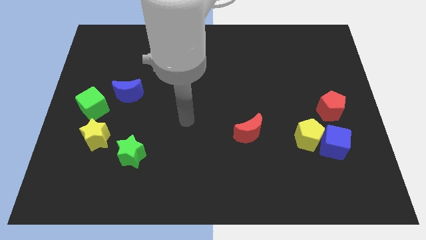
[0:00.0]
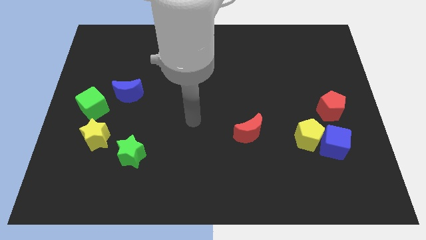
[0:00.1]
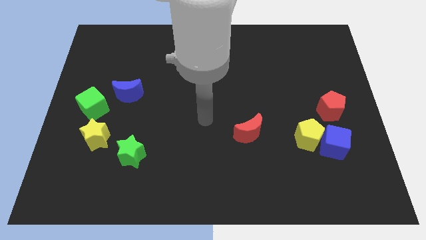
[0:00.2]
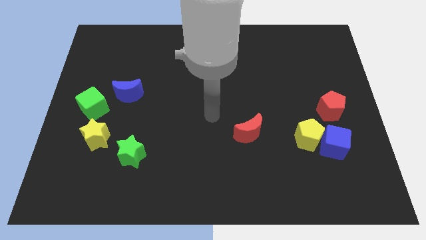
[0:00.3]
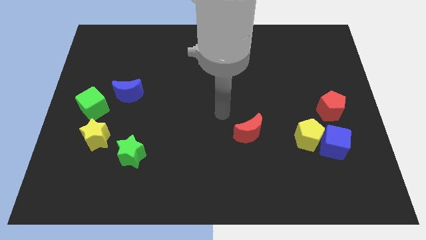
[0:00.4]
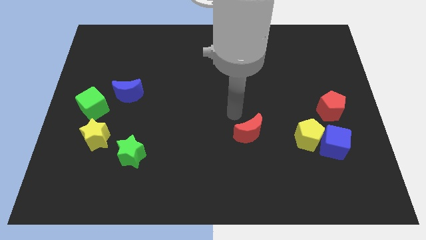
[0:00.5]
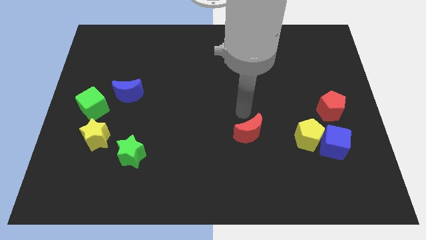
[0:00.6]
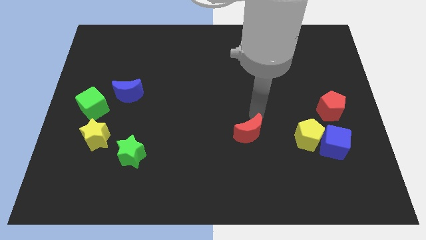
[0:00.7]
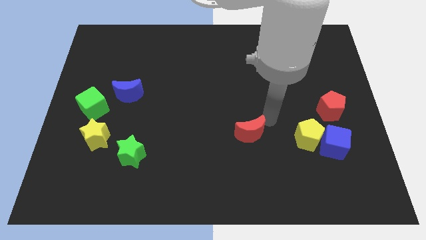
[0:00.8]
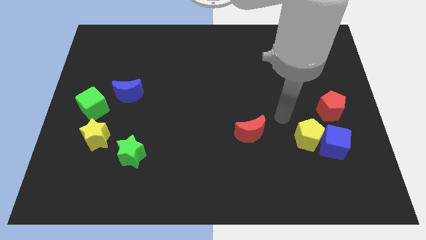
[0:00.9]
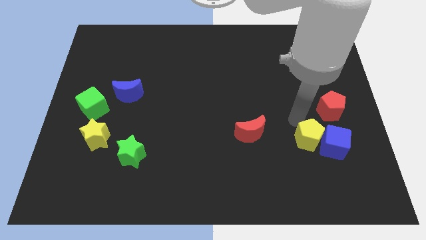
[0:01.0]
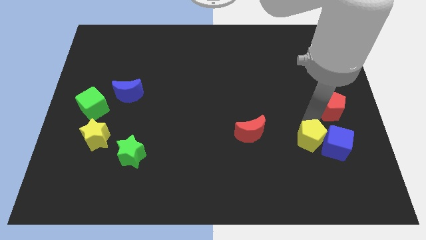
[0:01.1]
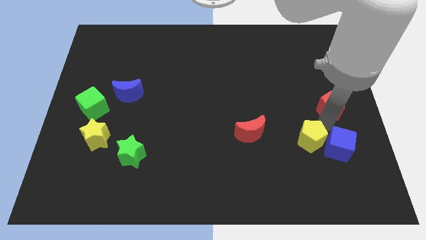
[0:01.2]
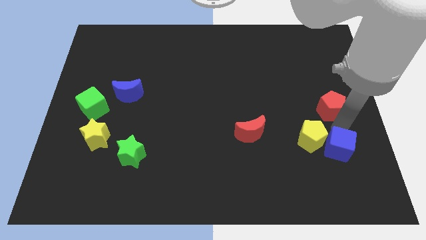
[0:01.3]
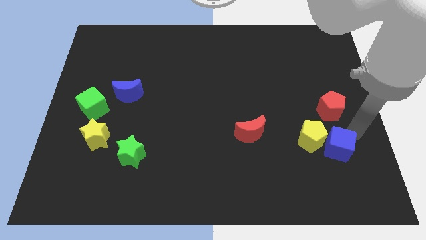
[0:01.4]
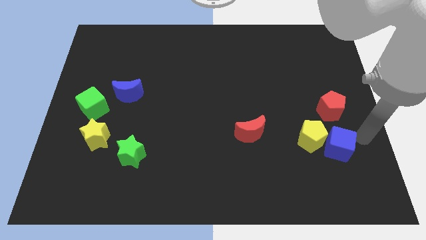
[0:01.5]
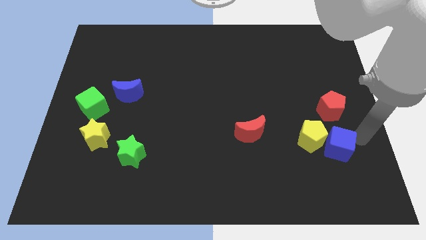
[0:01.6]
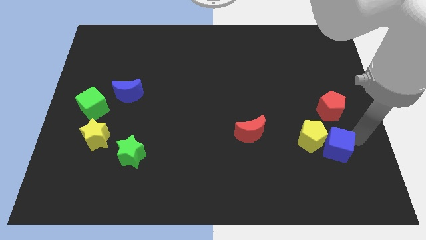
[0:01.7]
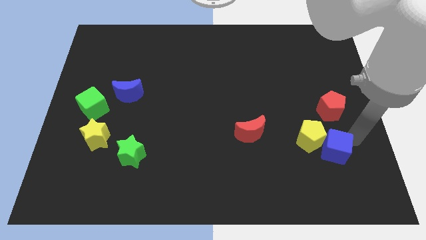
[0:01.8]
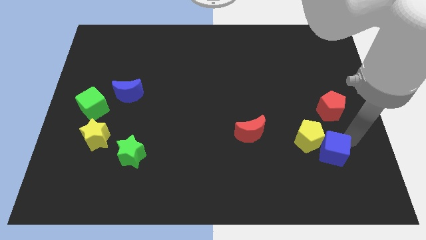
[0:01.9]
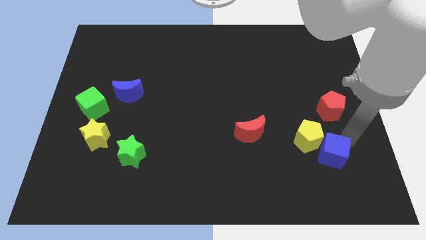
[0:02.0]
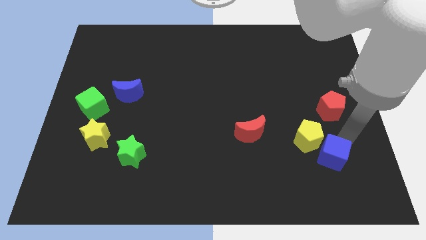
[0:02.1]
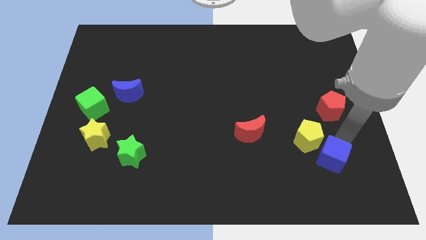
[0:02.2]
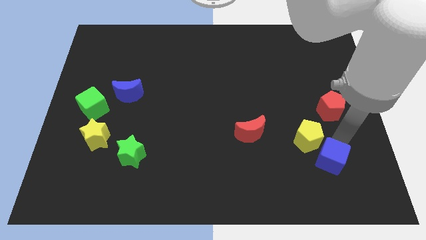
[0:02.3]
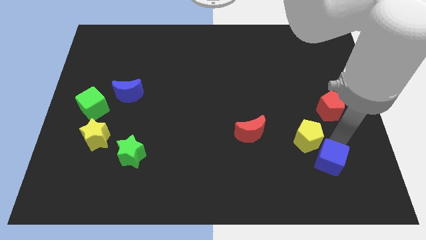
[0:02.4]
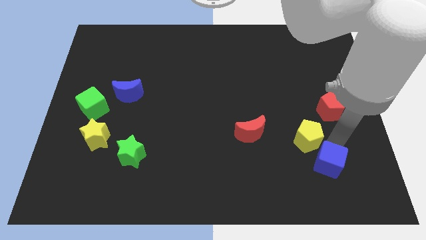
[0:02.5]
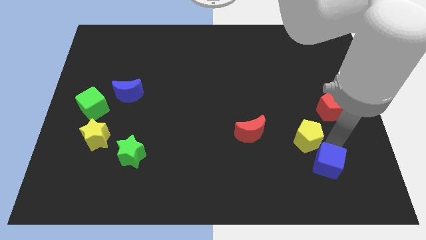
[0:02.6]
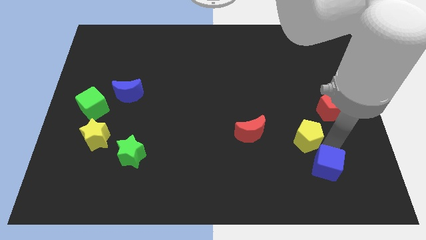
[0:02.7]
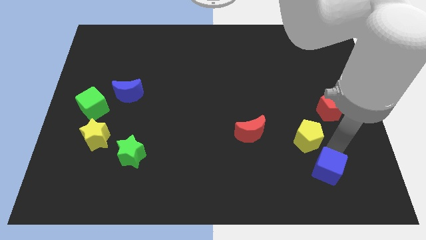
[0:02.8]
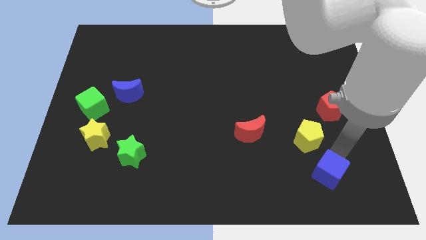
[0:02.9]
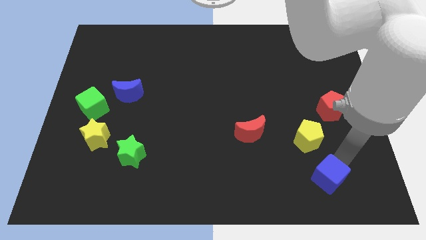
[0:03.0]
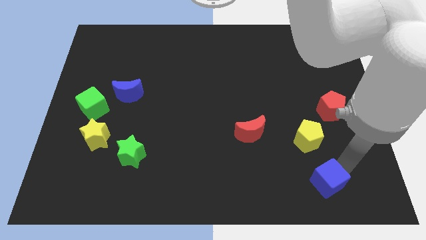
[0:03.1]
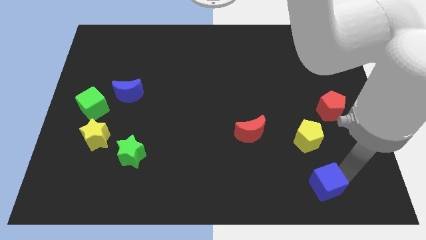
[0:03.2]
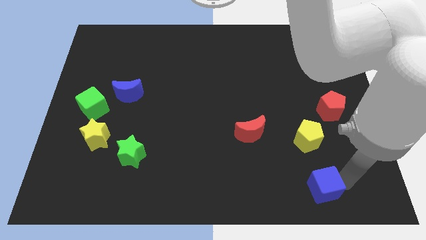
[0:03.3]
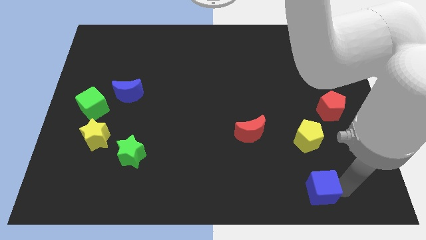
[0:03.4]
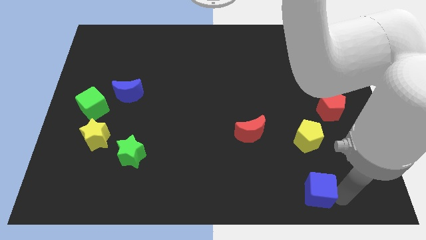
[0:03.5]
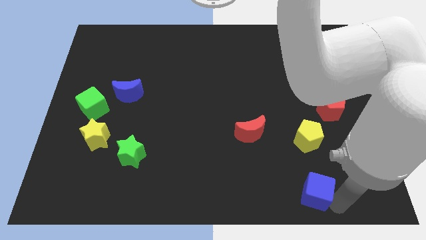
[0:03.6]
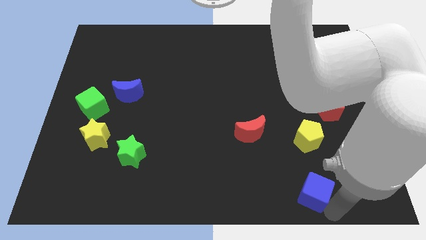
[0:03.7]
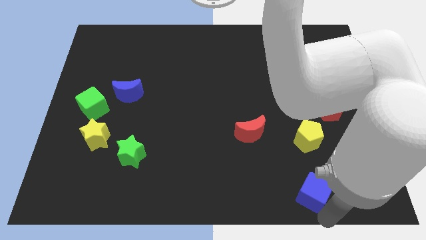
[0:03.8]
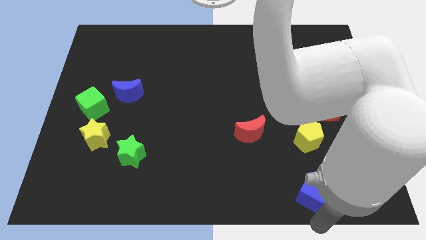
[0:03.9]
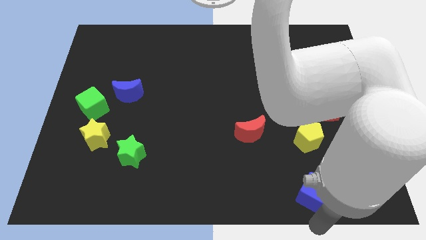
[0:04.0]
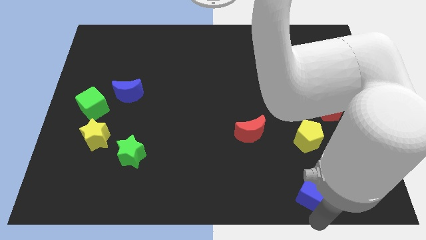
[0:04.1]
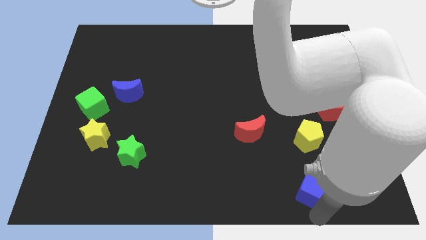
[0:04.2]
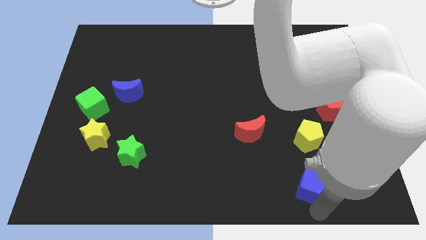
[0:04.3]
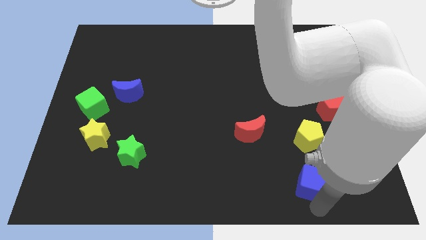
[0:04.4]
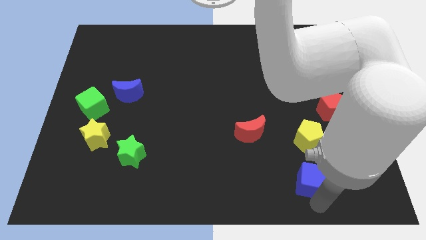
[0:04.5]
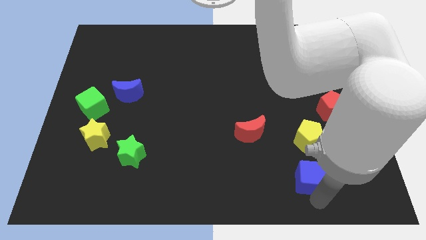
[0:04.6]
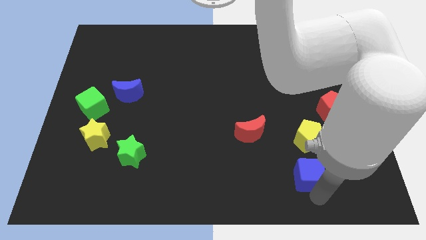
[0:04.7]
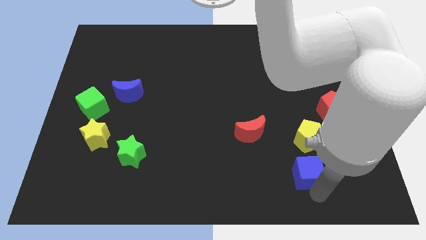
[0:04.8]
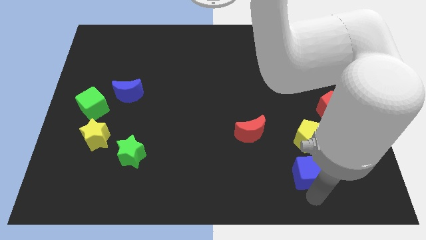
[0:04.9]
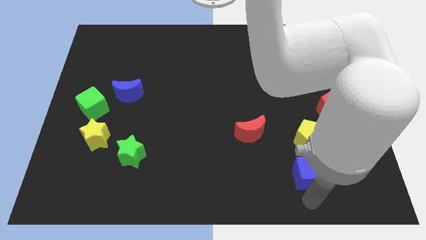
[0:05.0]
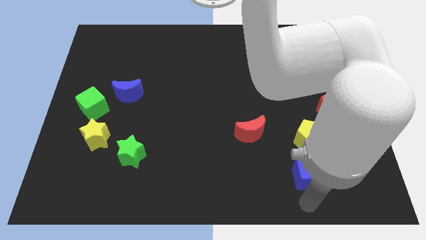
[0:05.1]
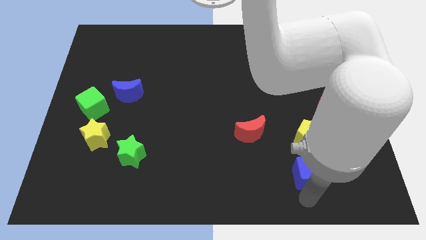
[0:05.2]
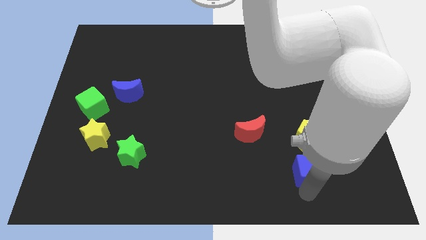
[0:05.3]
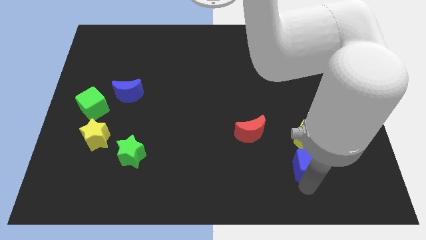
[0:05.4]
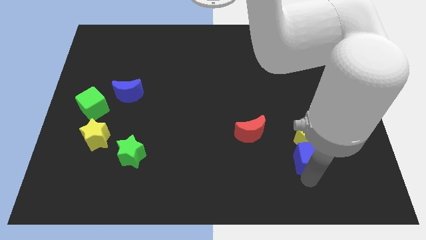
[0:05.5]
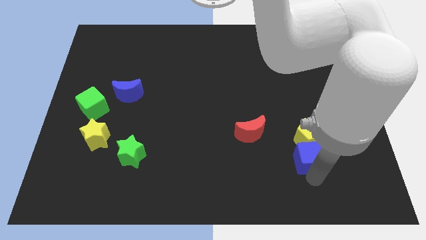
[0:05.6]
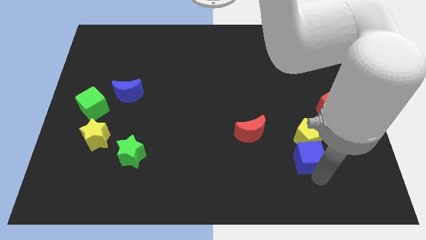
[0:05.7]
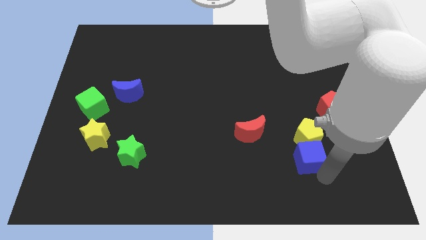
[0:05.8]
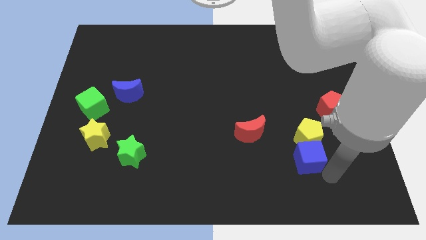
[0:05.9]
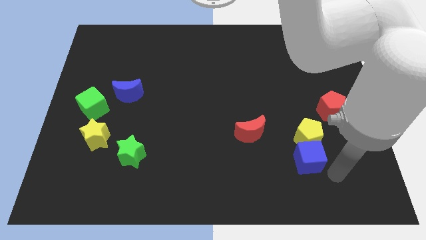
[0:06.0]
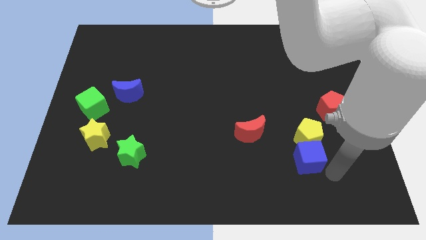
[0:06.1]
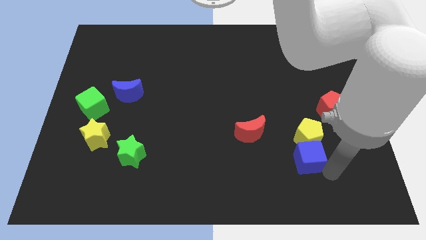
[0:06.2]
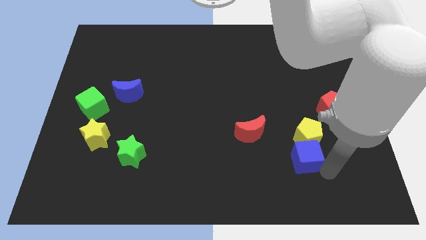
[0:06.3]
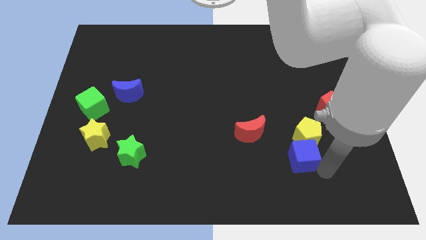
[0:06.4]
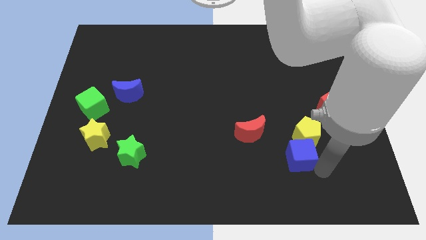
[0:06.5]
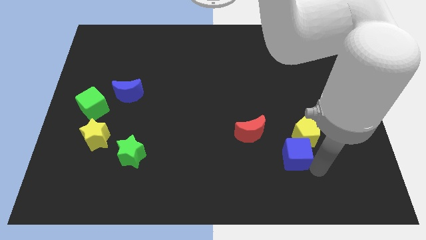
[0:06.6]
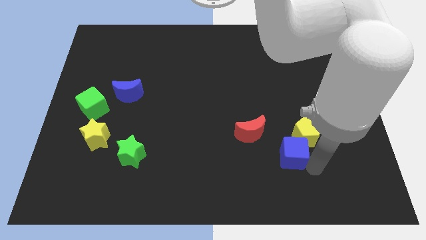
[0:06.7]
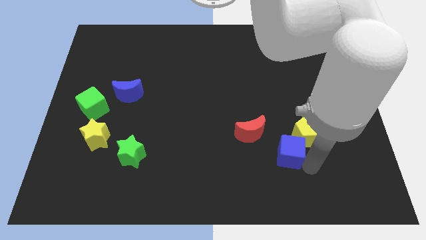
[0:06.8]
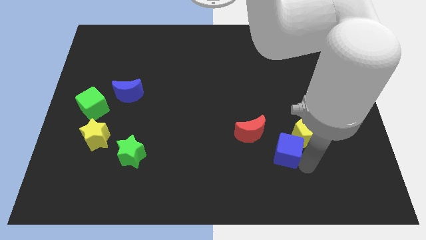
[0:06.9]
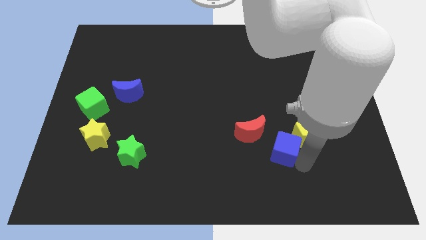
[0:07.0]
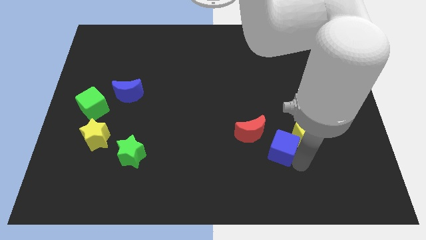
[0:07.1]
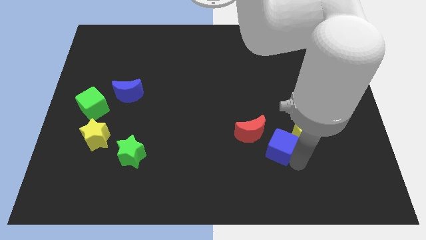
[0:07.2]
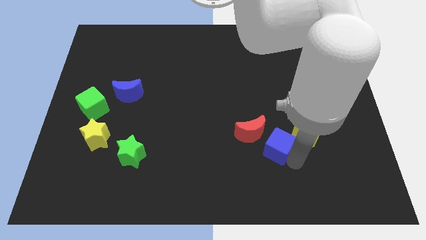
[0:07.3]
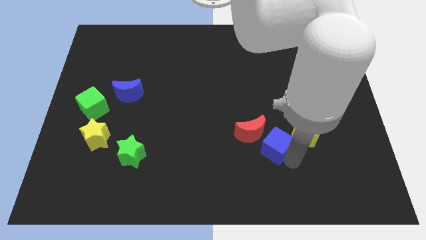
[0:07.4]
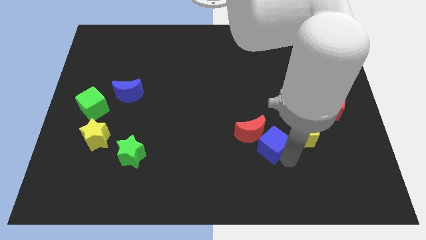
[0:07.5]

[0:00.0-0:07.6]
slide the blue cube to the red moon

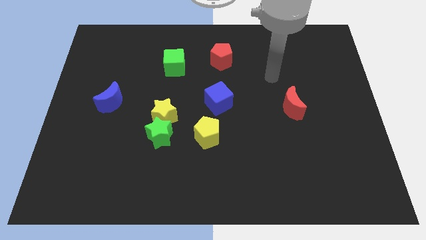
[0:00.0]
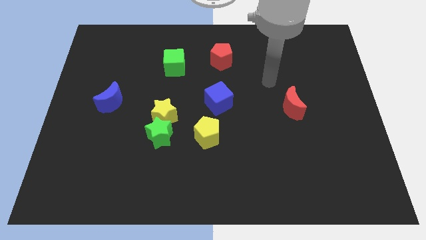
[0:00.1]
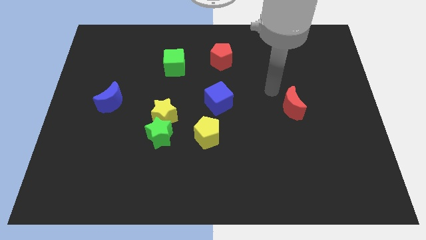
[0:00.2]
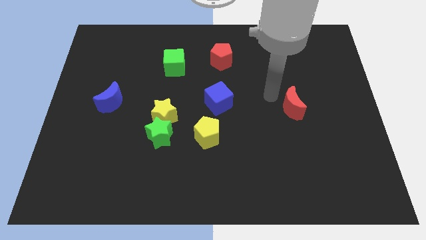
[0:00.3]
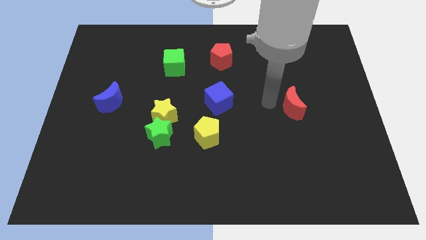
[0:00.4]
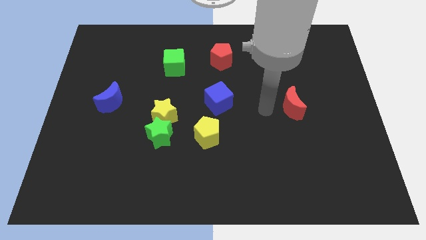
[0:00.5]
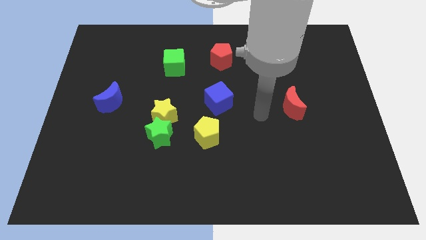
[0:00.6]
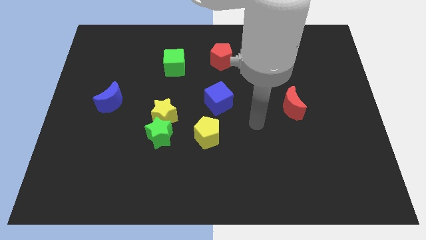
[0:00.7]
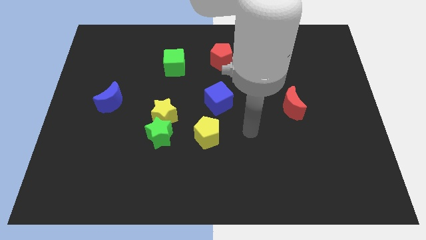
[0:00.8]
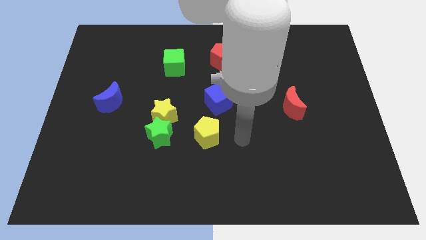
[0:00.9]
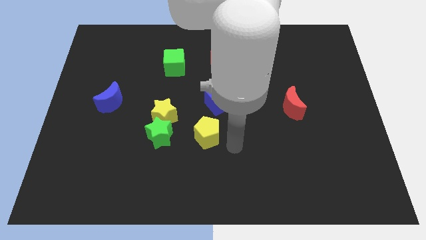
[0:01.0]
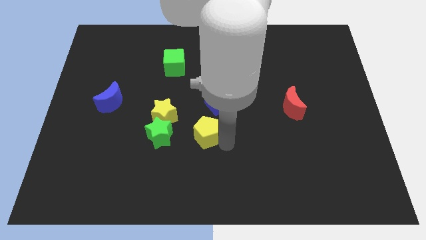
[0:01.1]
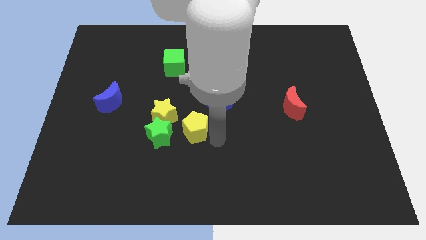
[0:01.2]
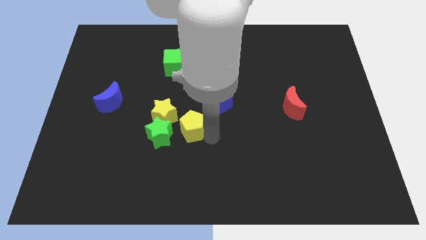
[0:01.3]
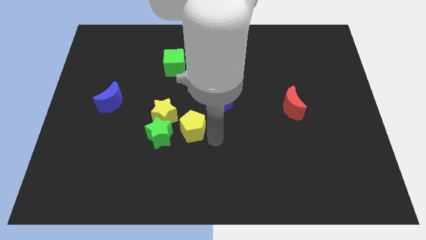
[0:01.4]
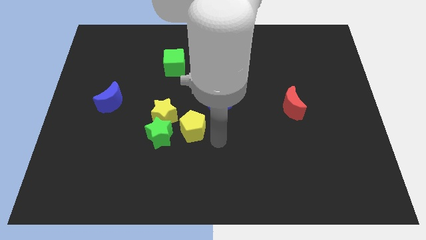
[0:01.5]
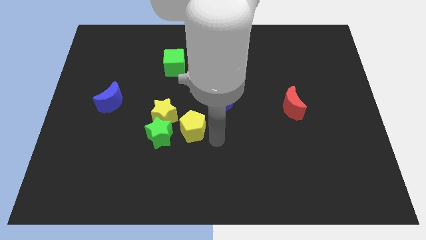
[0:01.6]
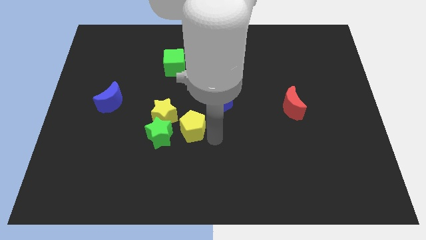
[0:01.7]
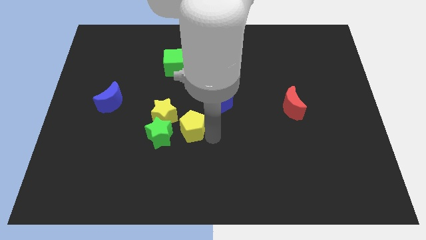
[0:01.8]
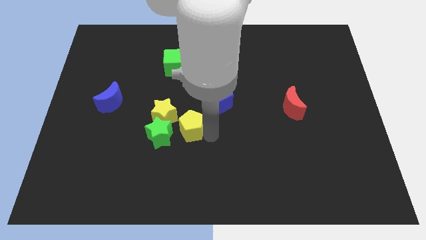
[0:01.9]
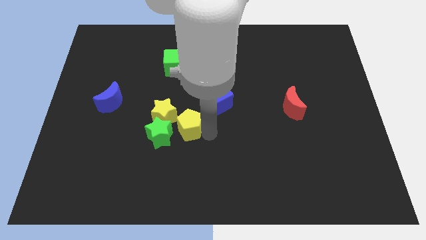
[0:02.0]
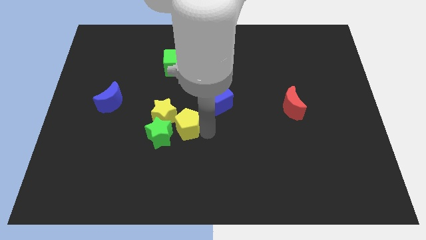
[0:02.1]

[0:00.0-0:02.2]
move the yellow pentagon to the yellow star
